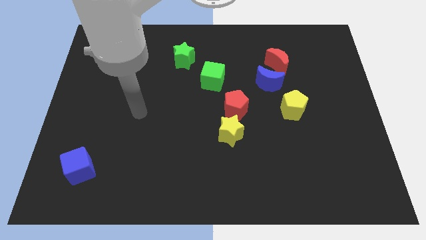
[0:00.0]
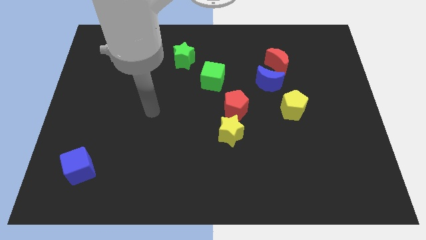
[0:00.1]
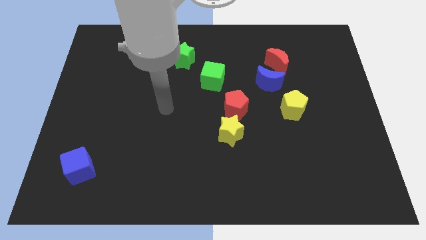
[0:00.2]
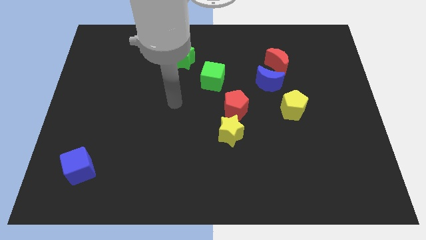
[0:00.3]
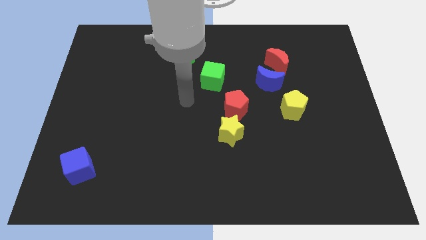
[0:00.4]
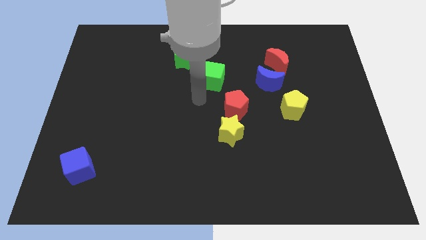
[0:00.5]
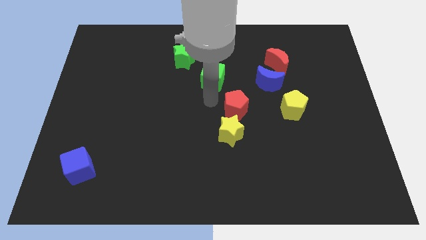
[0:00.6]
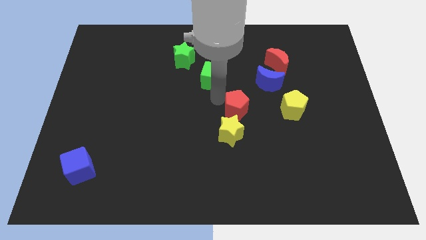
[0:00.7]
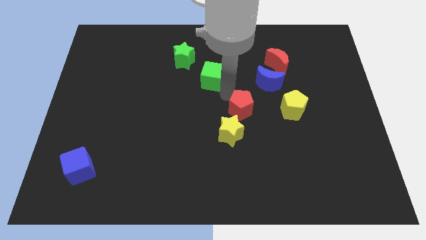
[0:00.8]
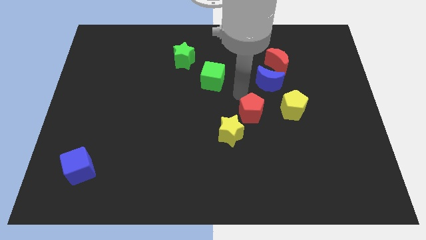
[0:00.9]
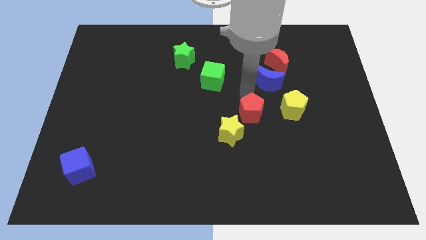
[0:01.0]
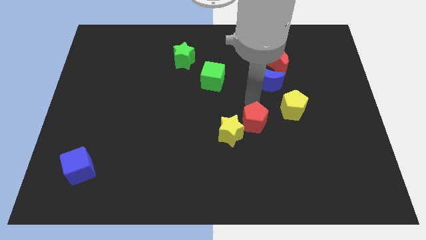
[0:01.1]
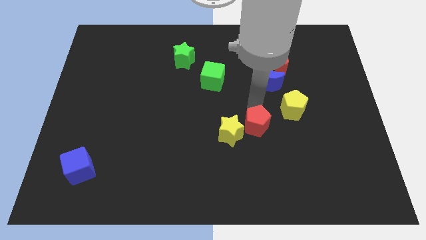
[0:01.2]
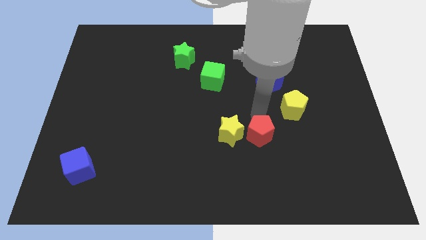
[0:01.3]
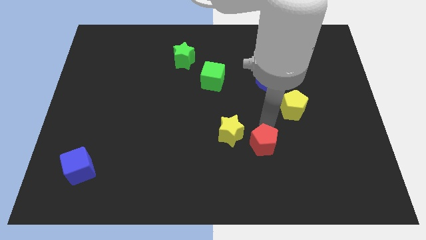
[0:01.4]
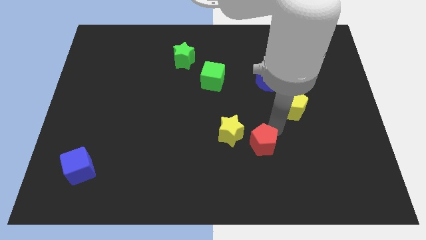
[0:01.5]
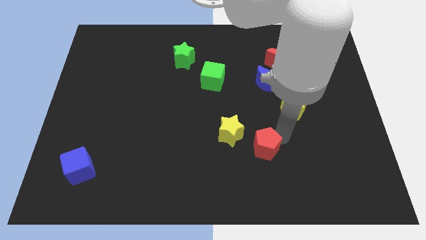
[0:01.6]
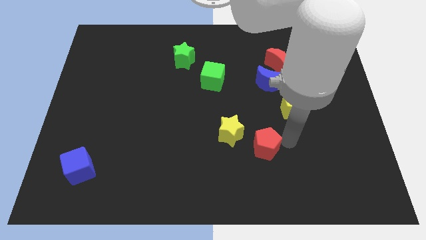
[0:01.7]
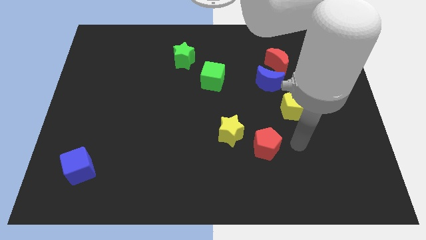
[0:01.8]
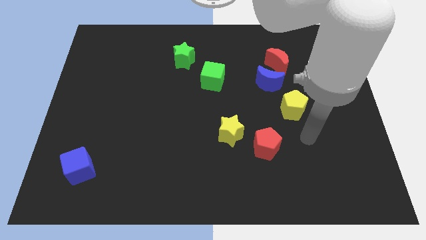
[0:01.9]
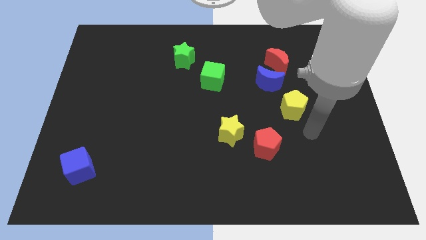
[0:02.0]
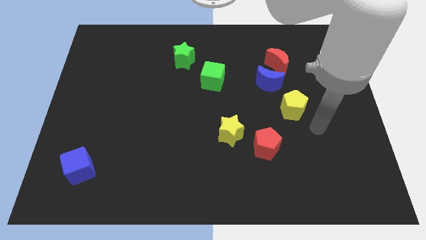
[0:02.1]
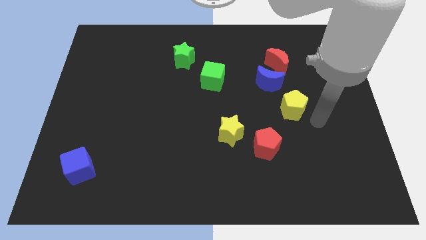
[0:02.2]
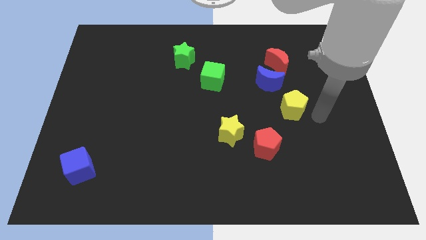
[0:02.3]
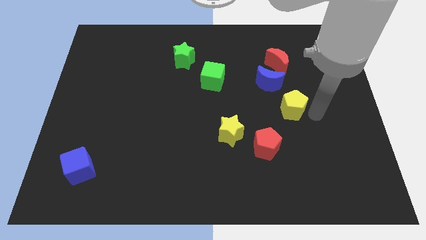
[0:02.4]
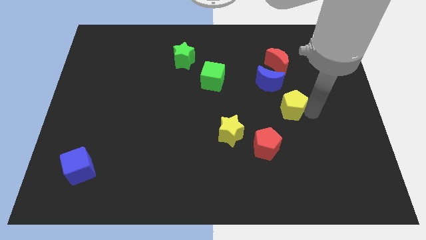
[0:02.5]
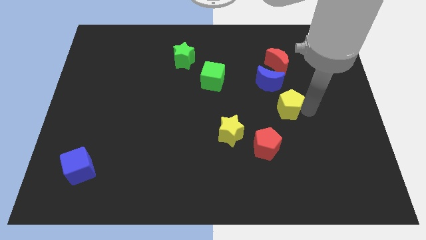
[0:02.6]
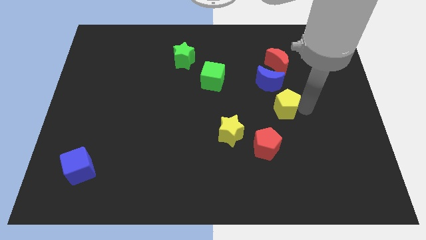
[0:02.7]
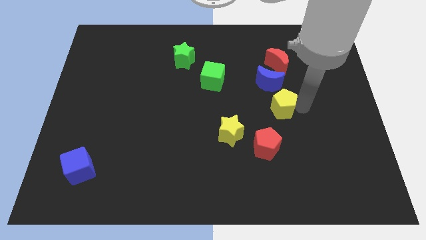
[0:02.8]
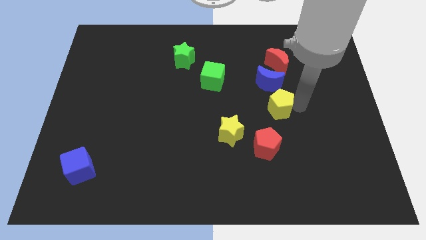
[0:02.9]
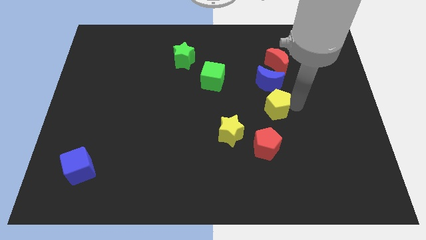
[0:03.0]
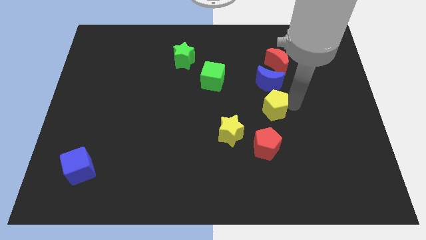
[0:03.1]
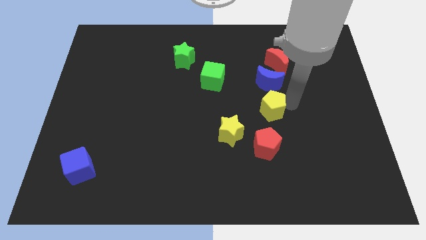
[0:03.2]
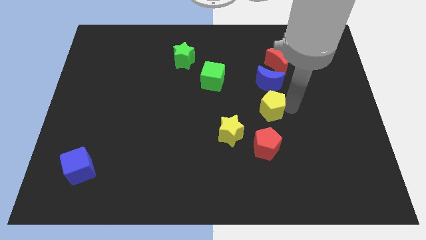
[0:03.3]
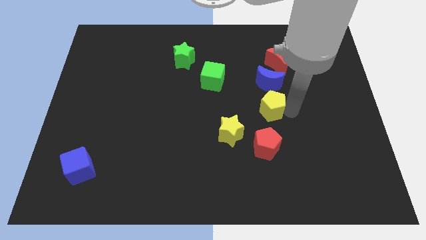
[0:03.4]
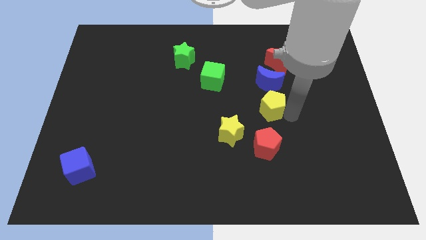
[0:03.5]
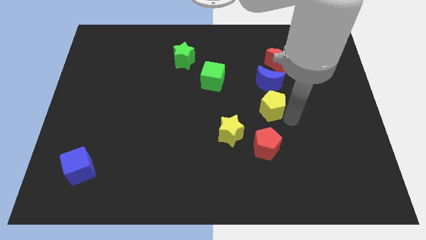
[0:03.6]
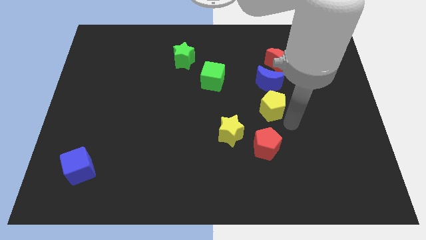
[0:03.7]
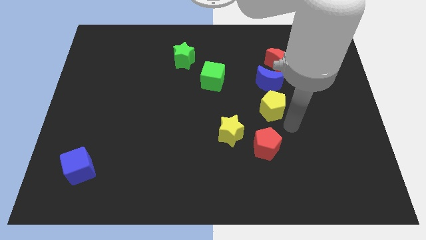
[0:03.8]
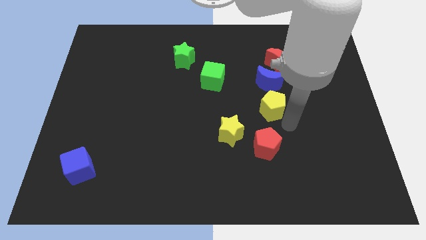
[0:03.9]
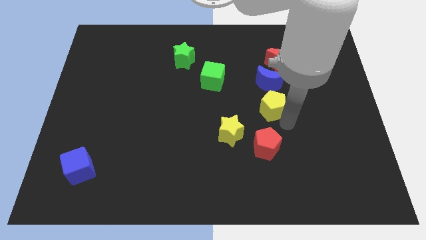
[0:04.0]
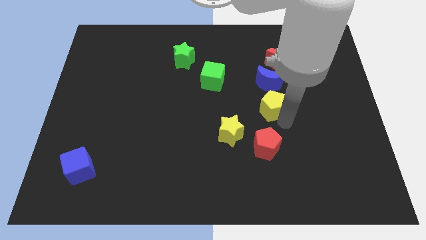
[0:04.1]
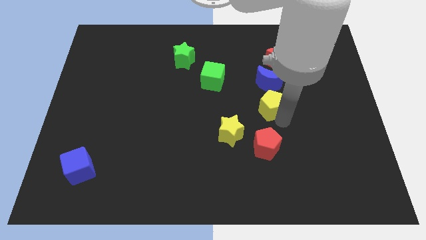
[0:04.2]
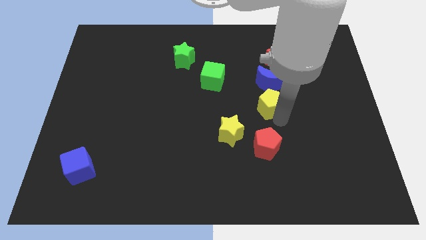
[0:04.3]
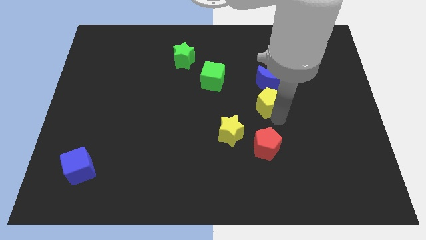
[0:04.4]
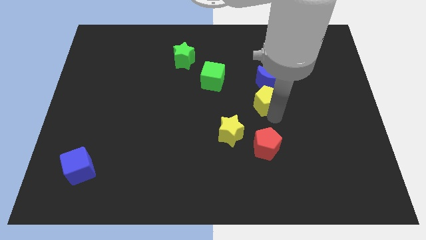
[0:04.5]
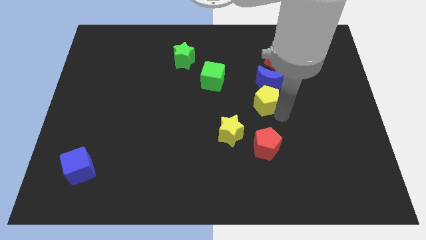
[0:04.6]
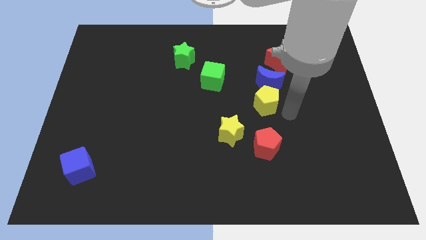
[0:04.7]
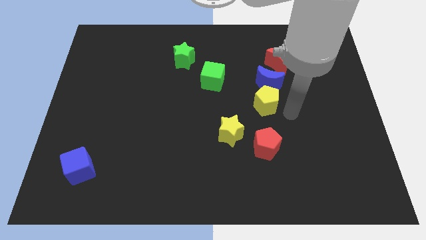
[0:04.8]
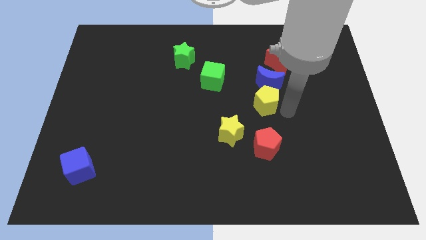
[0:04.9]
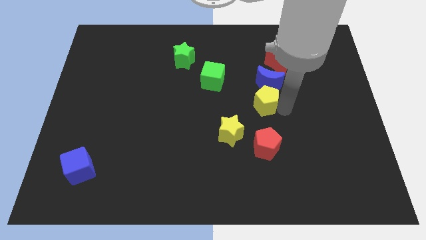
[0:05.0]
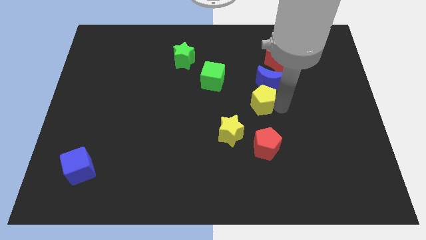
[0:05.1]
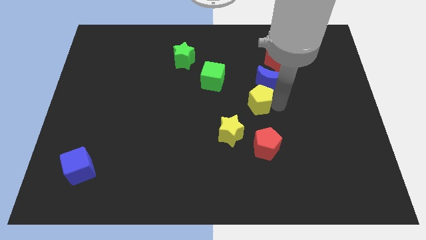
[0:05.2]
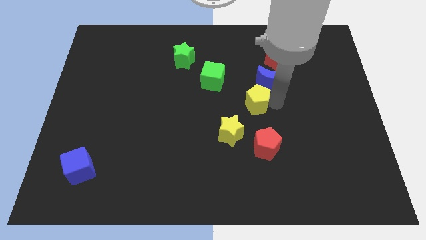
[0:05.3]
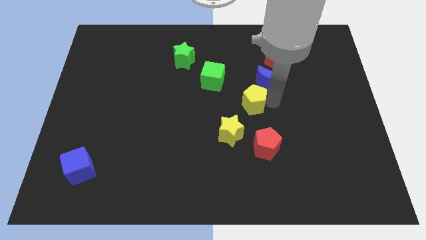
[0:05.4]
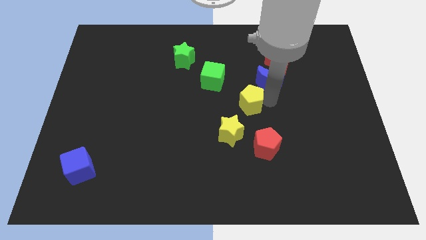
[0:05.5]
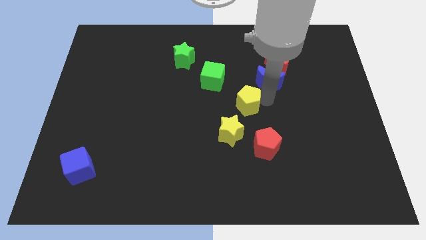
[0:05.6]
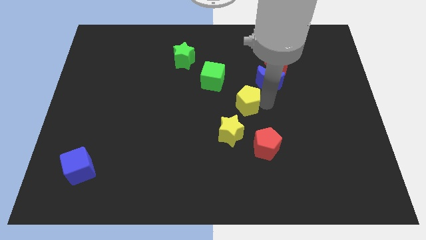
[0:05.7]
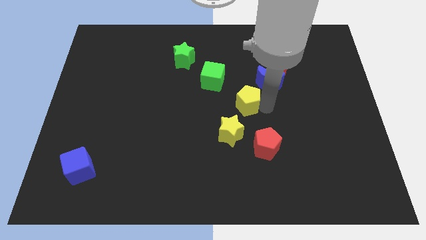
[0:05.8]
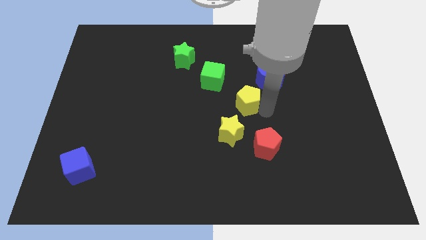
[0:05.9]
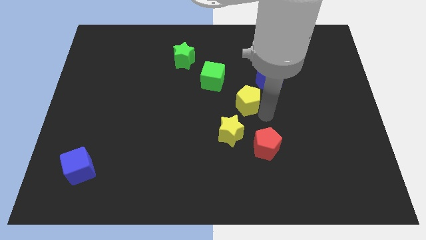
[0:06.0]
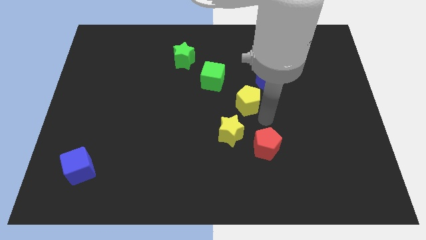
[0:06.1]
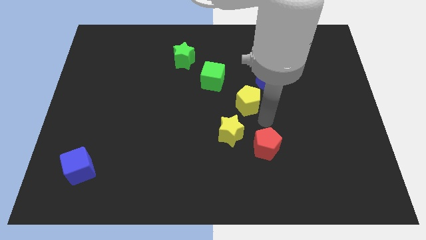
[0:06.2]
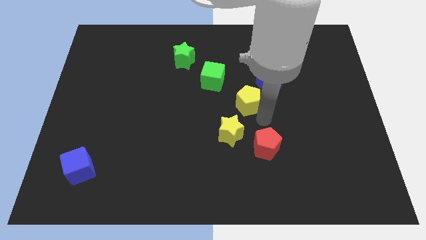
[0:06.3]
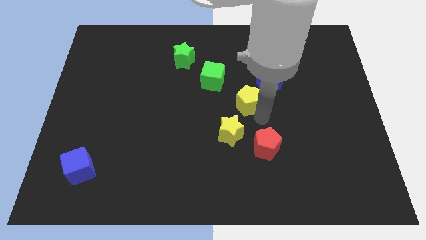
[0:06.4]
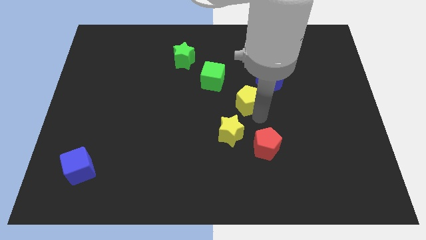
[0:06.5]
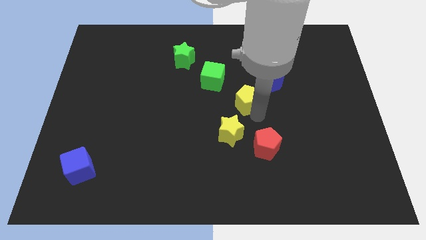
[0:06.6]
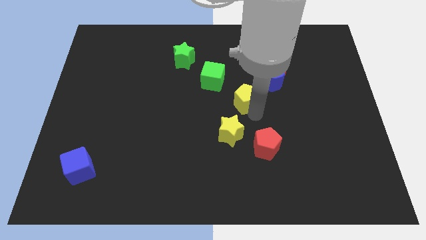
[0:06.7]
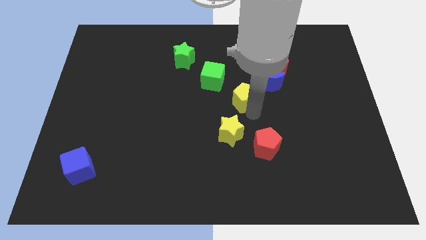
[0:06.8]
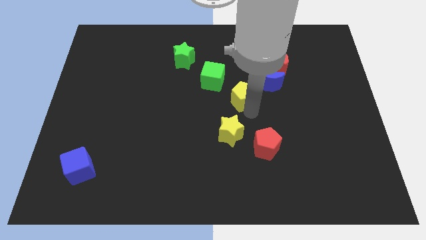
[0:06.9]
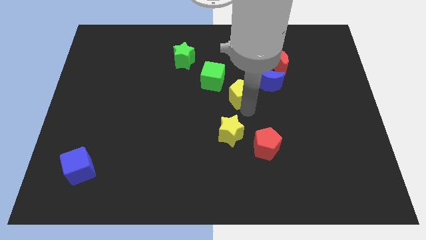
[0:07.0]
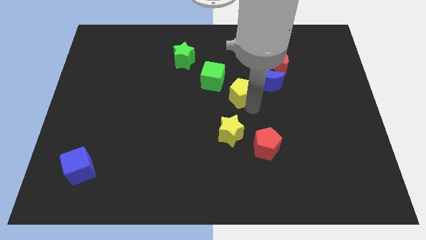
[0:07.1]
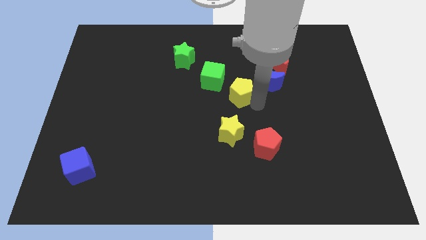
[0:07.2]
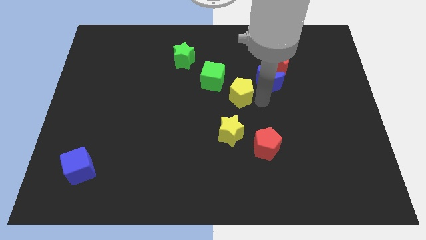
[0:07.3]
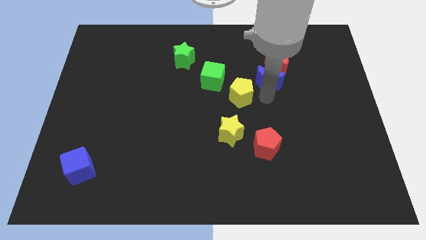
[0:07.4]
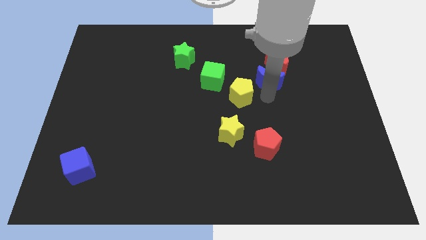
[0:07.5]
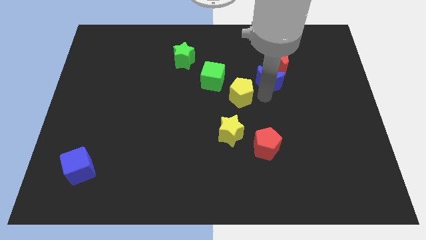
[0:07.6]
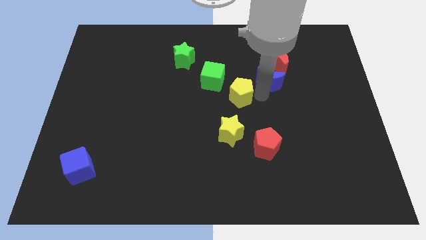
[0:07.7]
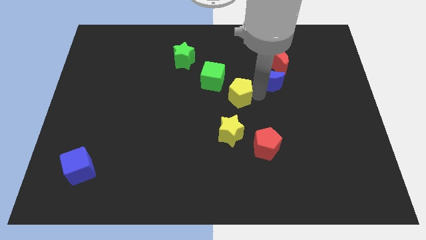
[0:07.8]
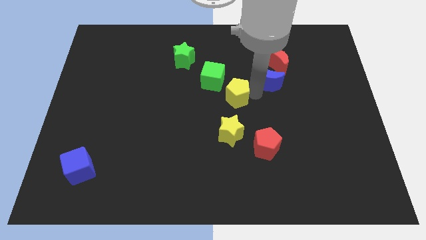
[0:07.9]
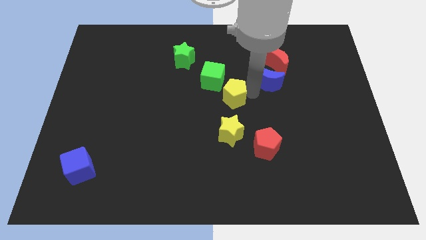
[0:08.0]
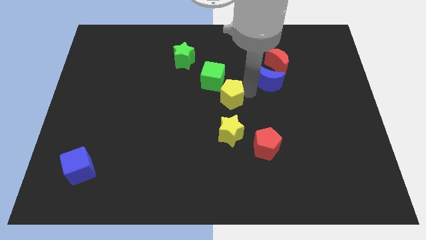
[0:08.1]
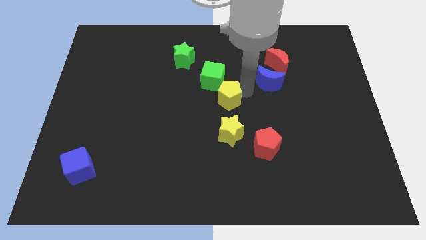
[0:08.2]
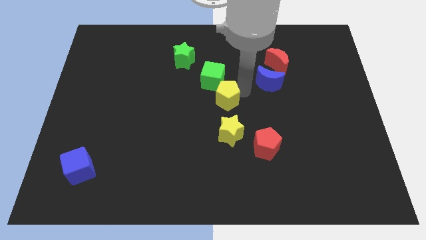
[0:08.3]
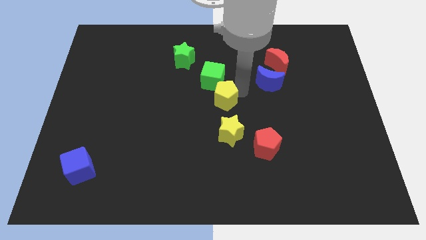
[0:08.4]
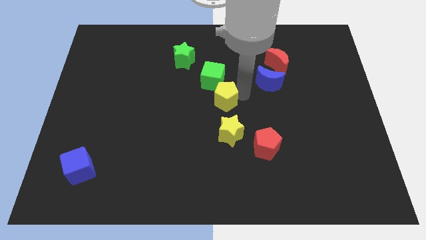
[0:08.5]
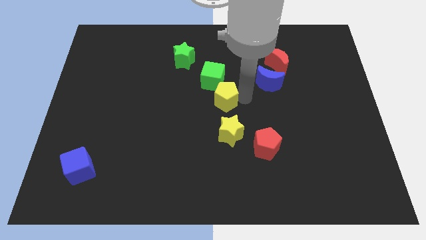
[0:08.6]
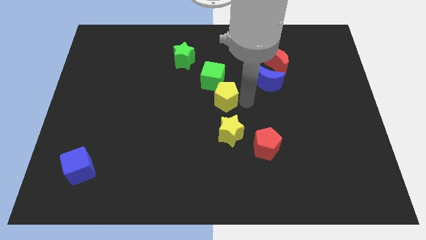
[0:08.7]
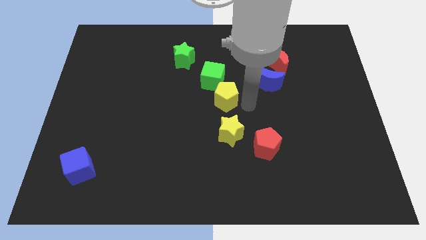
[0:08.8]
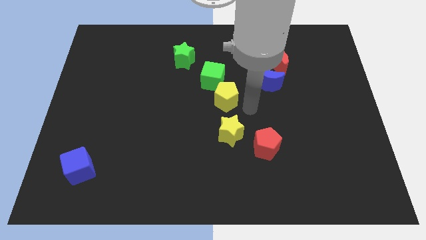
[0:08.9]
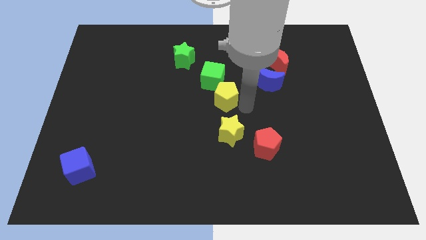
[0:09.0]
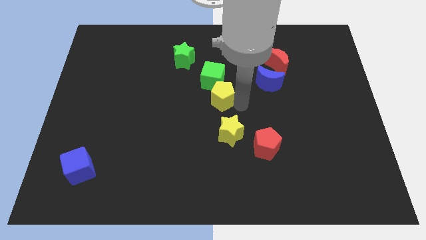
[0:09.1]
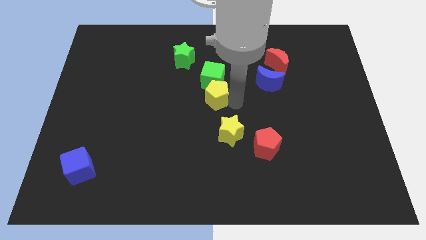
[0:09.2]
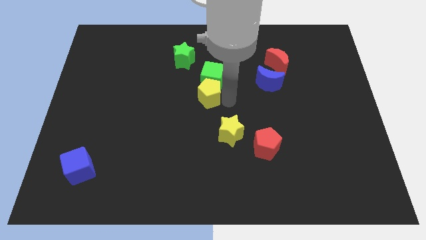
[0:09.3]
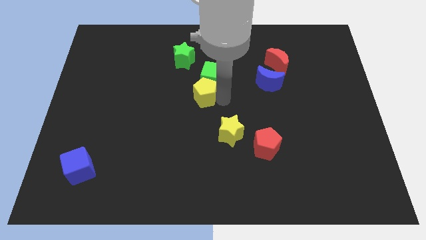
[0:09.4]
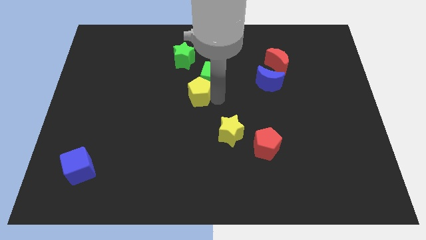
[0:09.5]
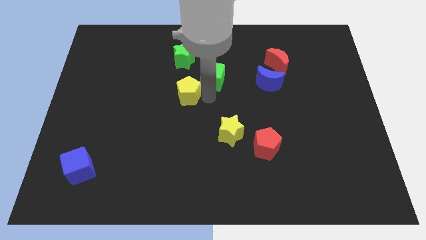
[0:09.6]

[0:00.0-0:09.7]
push the yellow pentagon to the left of the green cube
